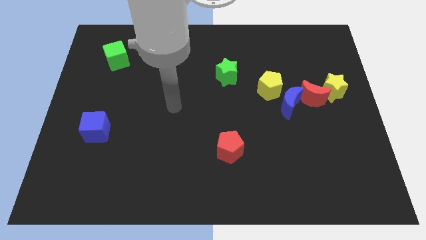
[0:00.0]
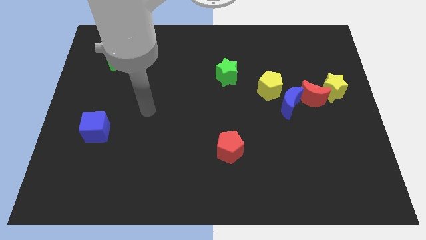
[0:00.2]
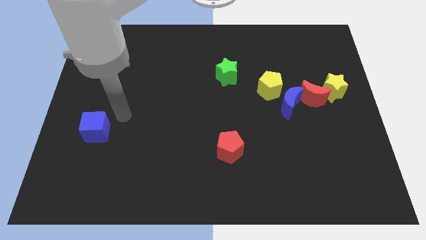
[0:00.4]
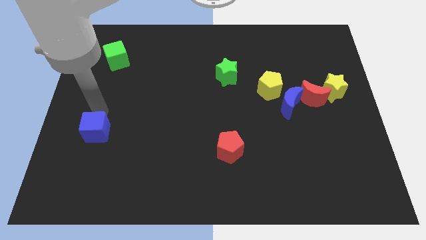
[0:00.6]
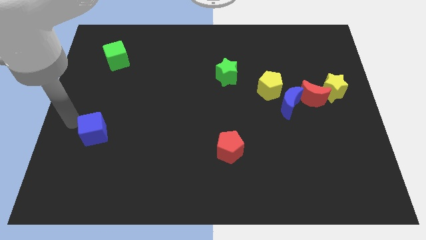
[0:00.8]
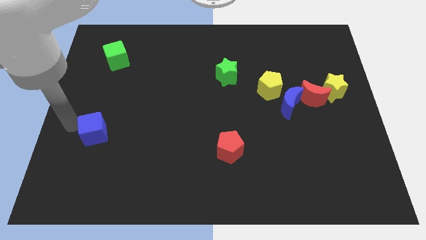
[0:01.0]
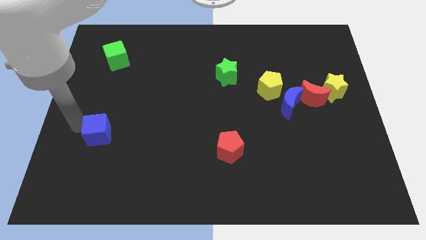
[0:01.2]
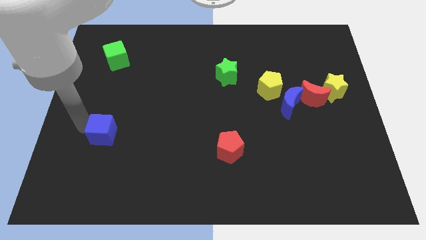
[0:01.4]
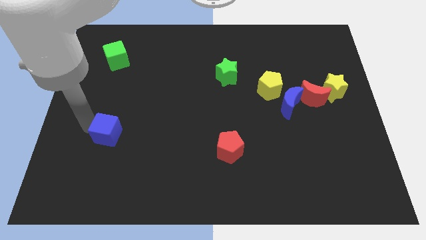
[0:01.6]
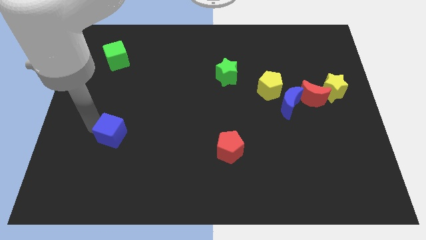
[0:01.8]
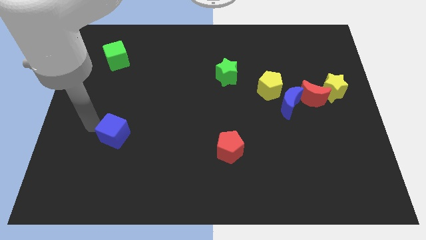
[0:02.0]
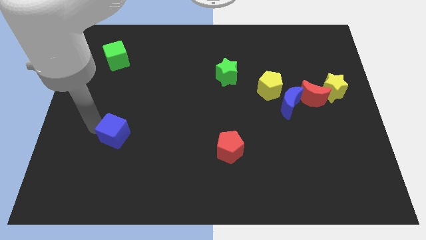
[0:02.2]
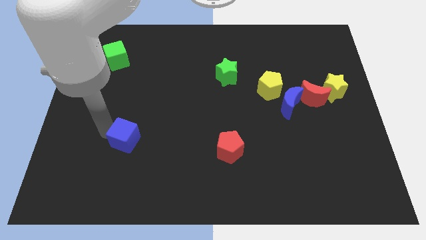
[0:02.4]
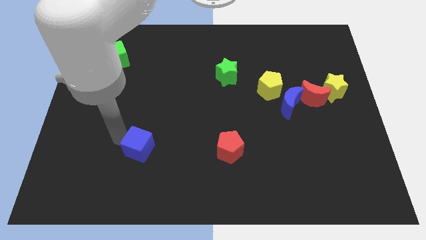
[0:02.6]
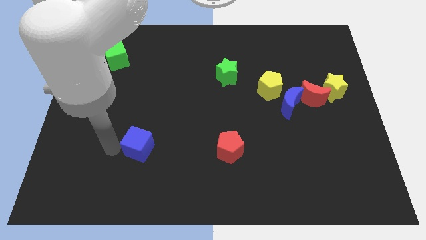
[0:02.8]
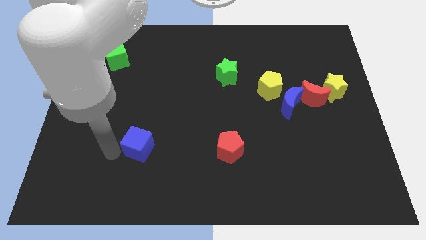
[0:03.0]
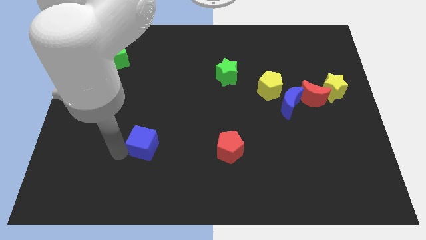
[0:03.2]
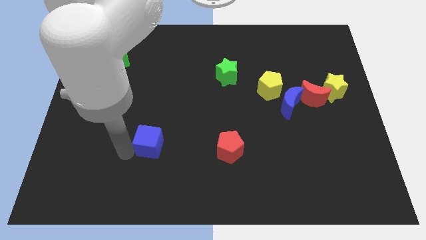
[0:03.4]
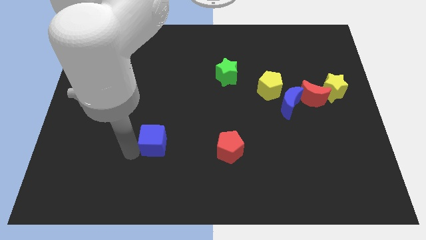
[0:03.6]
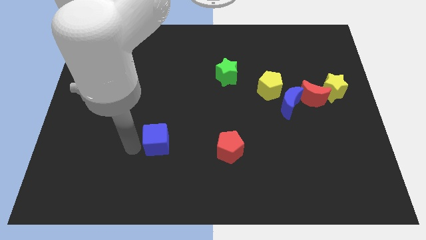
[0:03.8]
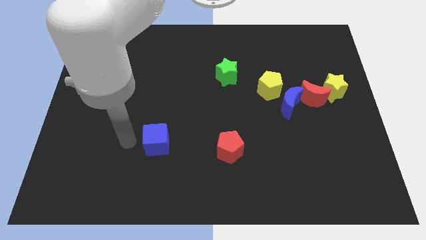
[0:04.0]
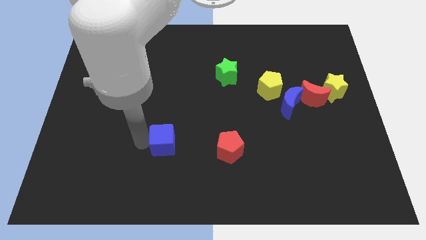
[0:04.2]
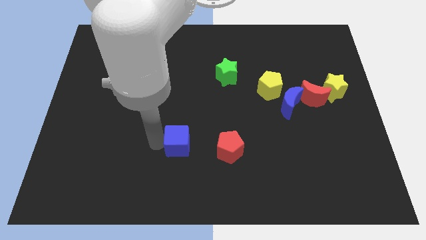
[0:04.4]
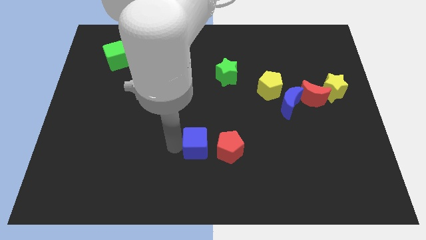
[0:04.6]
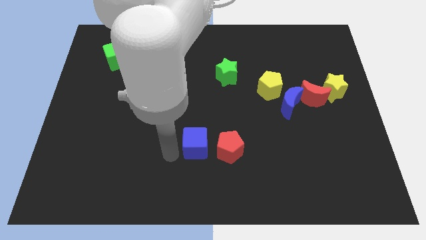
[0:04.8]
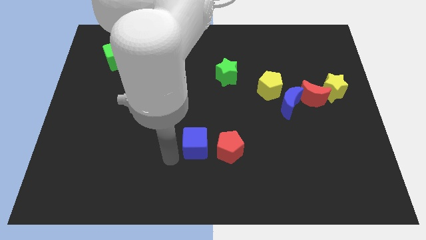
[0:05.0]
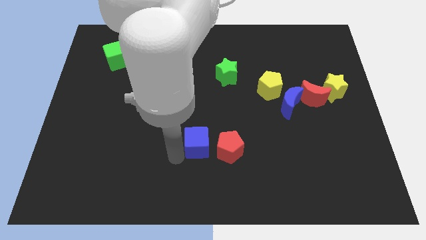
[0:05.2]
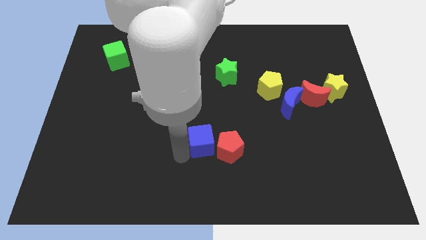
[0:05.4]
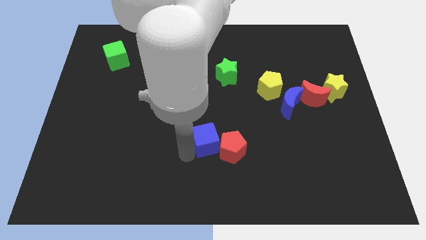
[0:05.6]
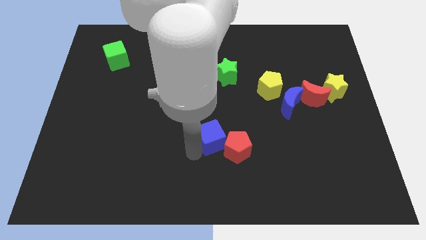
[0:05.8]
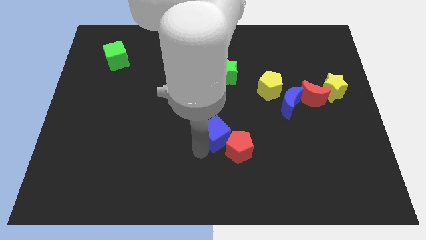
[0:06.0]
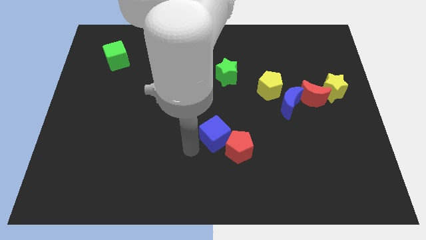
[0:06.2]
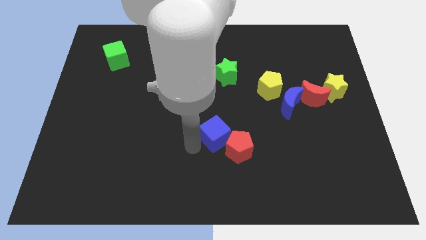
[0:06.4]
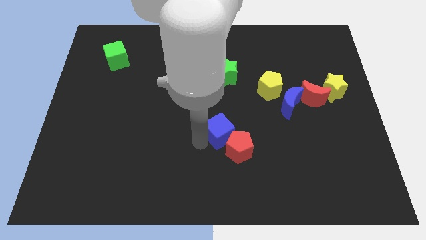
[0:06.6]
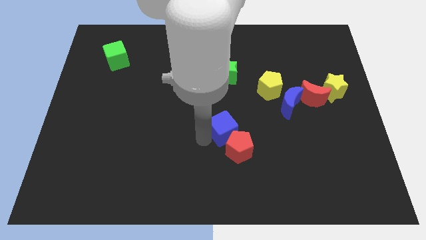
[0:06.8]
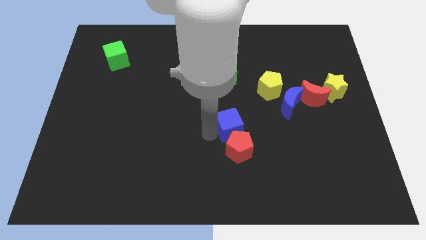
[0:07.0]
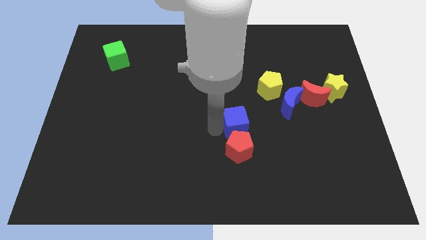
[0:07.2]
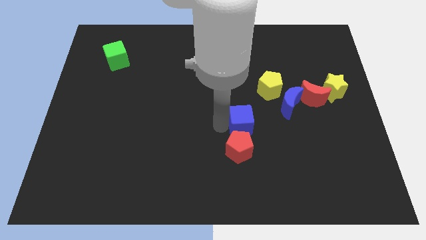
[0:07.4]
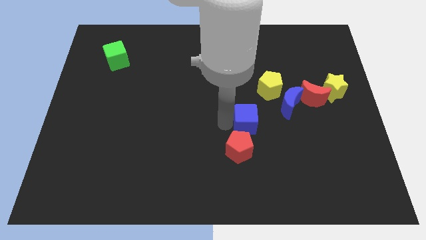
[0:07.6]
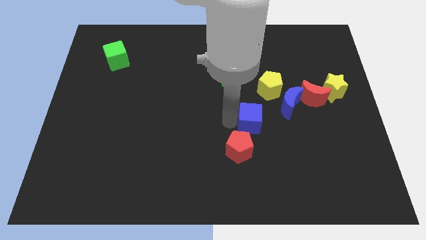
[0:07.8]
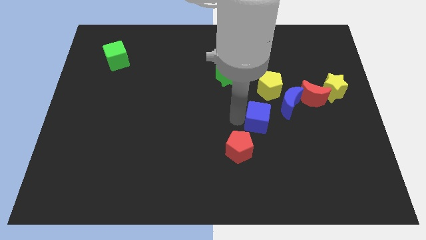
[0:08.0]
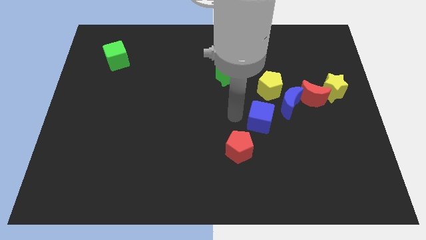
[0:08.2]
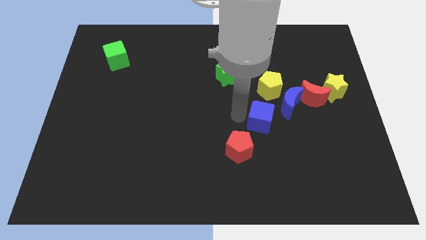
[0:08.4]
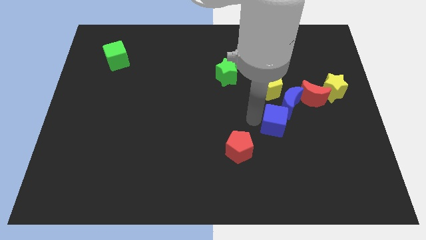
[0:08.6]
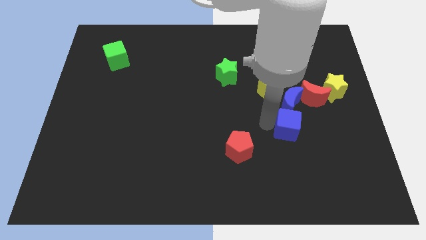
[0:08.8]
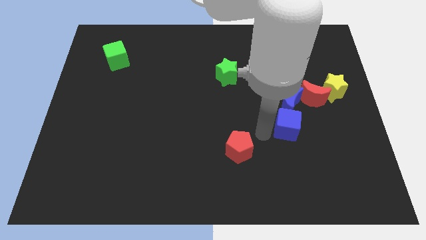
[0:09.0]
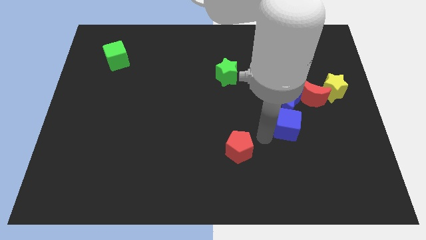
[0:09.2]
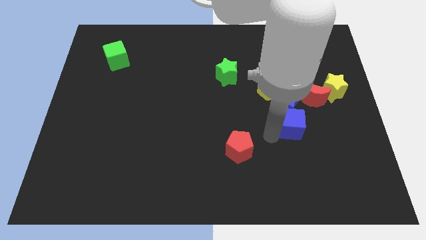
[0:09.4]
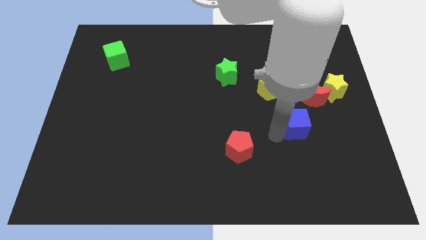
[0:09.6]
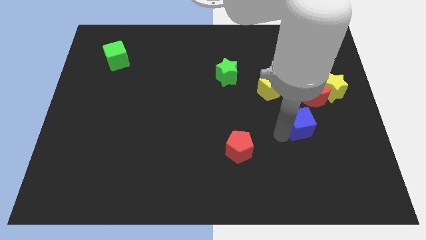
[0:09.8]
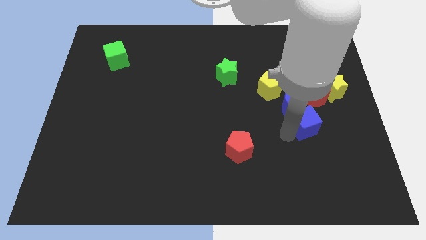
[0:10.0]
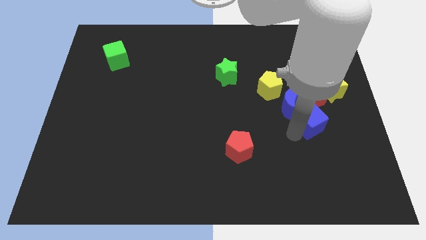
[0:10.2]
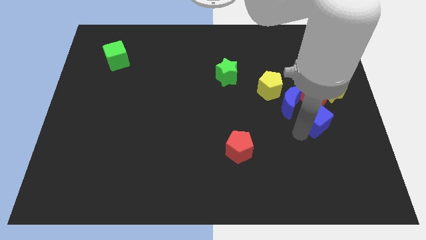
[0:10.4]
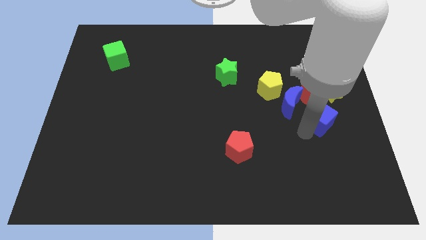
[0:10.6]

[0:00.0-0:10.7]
push the blue cube to the right side of the blue moon

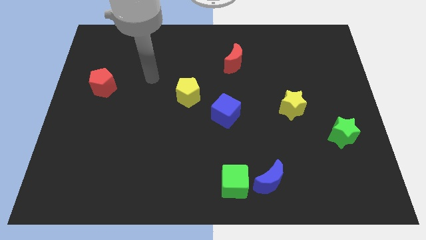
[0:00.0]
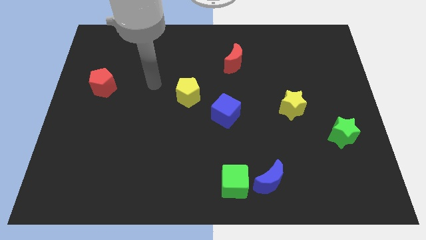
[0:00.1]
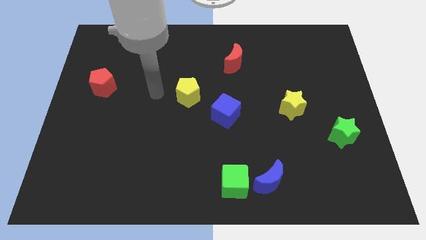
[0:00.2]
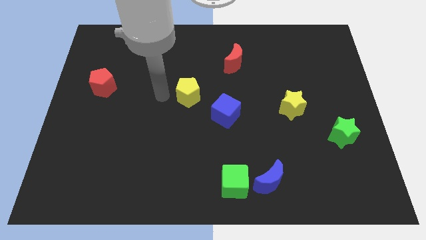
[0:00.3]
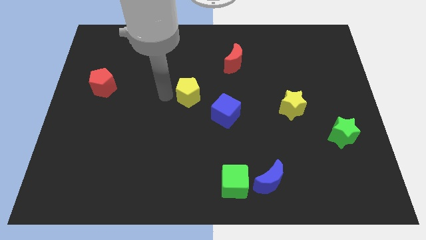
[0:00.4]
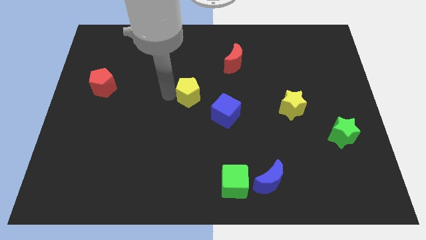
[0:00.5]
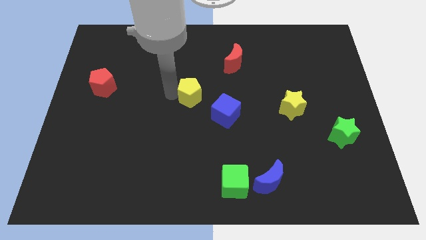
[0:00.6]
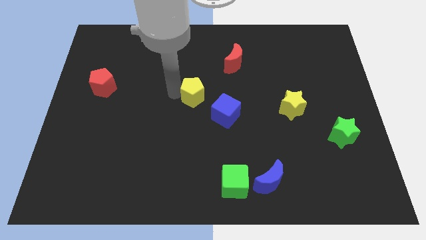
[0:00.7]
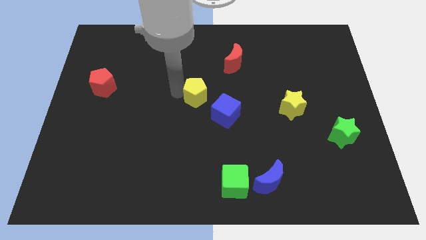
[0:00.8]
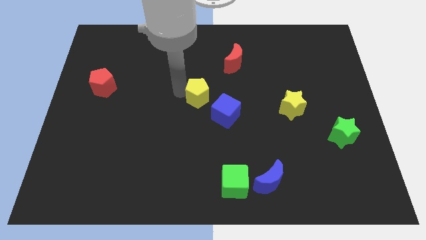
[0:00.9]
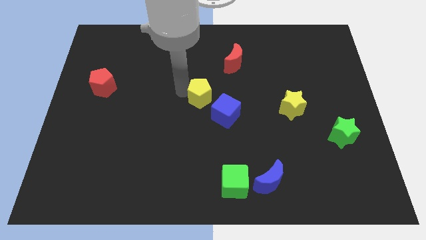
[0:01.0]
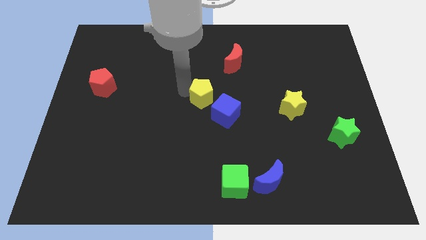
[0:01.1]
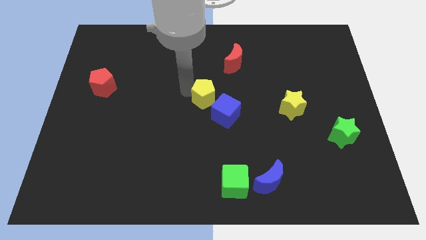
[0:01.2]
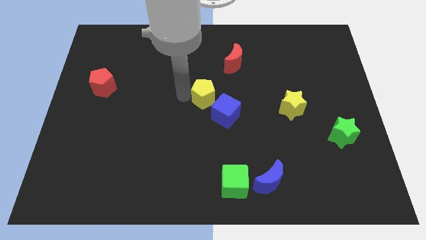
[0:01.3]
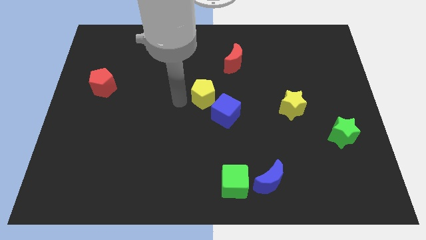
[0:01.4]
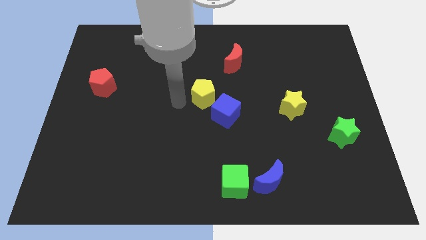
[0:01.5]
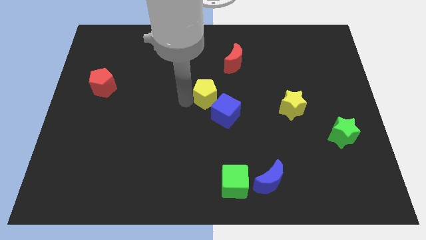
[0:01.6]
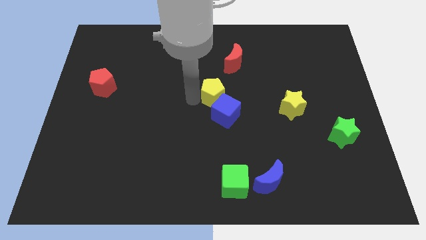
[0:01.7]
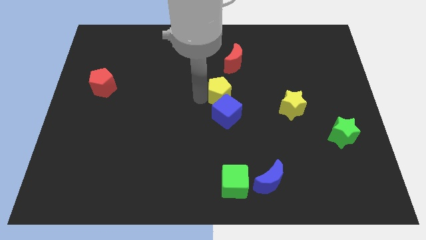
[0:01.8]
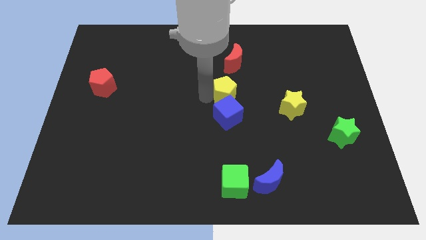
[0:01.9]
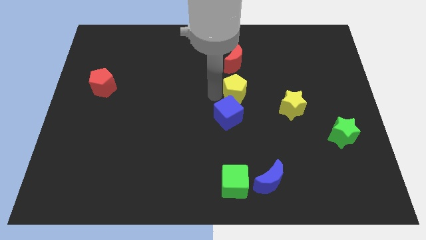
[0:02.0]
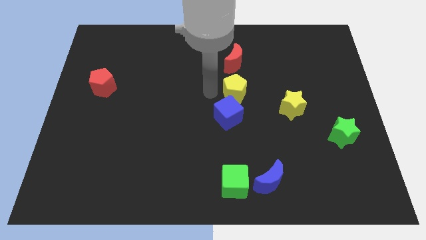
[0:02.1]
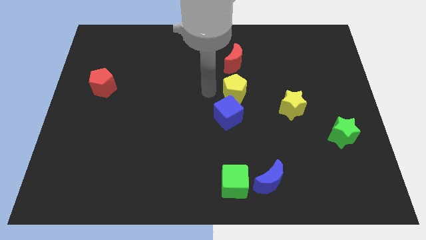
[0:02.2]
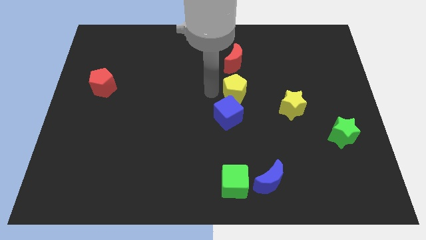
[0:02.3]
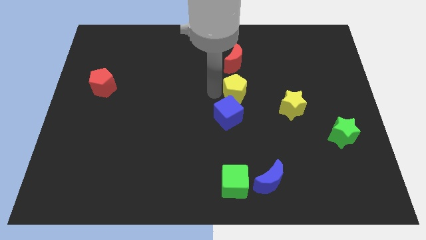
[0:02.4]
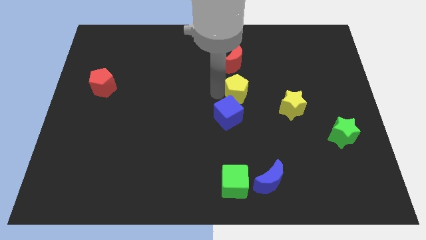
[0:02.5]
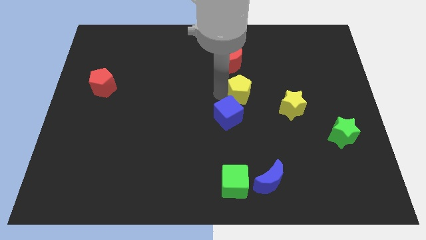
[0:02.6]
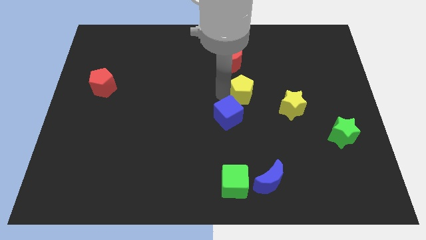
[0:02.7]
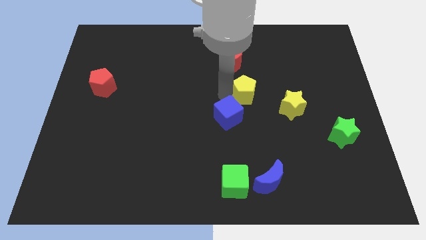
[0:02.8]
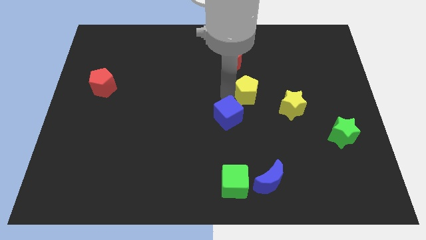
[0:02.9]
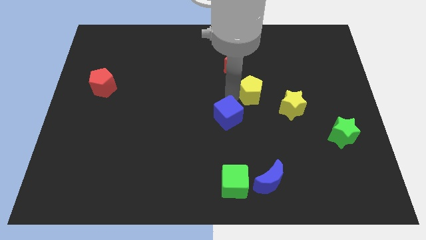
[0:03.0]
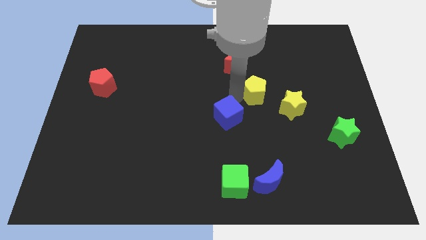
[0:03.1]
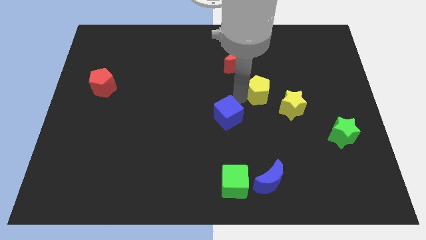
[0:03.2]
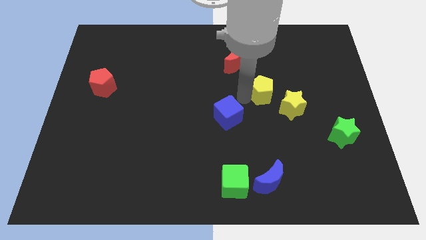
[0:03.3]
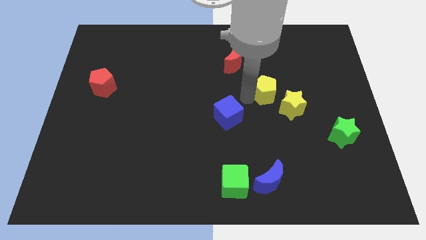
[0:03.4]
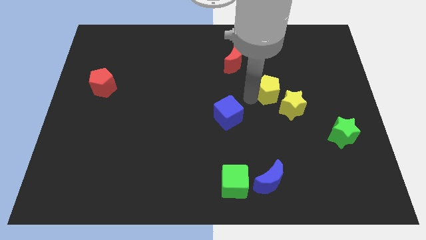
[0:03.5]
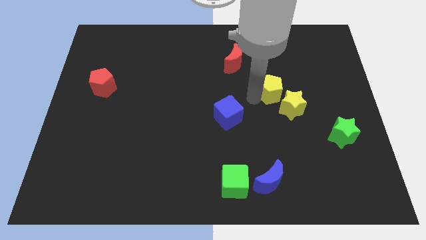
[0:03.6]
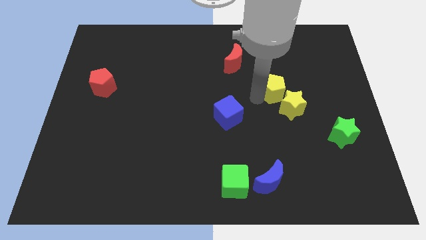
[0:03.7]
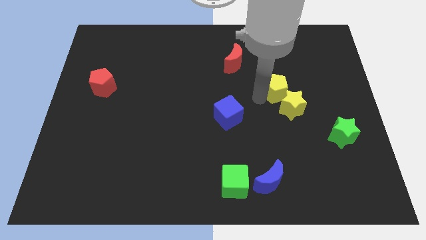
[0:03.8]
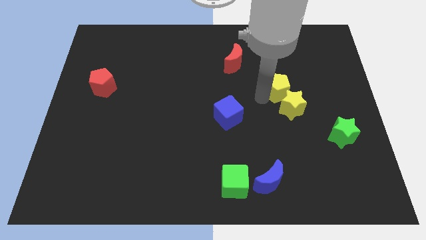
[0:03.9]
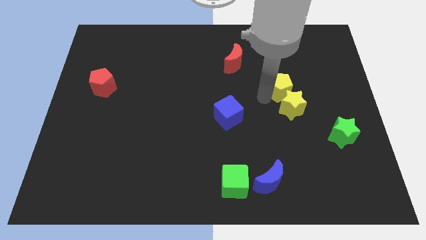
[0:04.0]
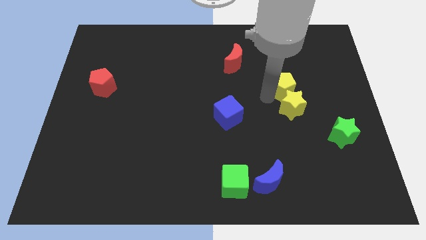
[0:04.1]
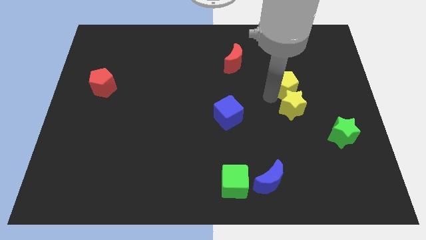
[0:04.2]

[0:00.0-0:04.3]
move the yellow pentagon to the top right of the yellow star
